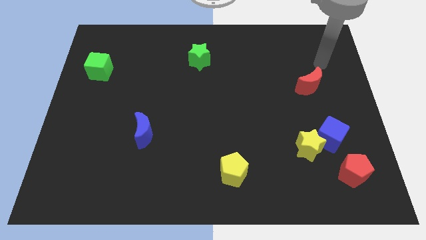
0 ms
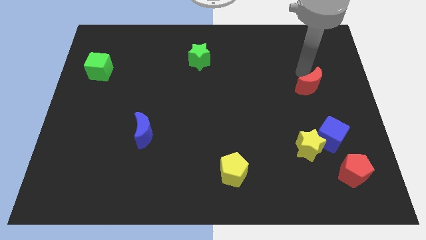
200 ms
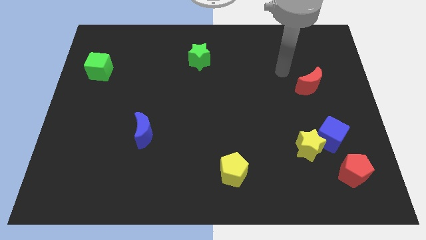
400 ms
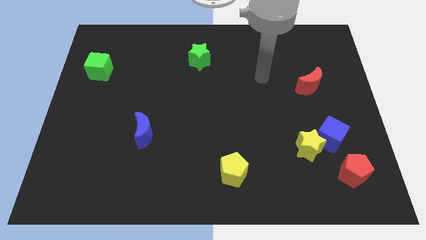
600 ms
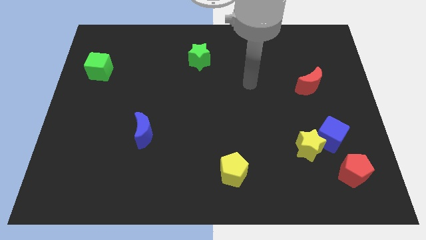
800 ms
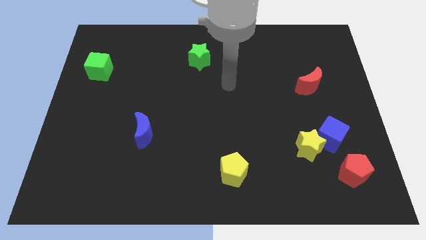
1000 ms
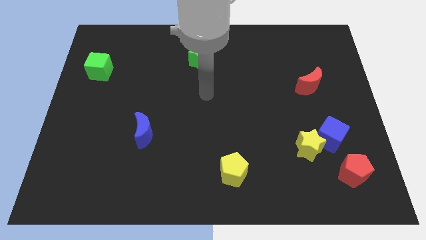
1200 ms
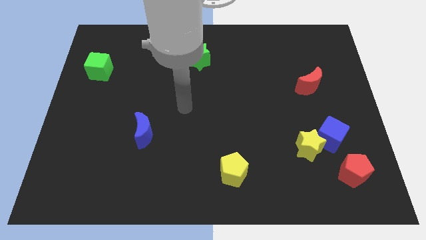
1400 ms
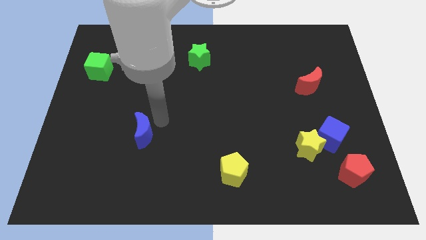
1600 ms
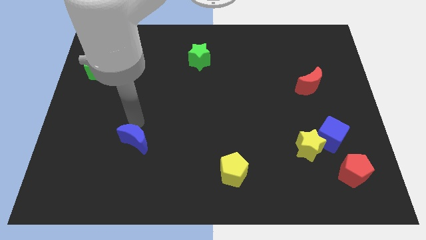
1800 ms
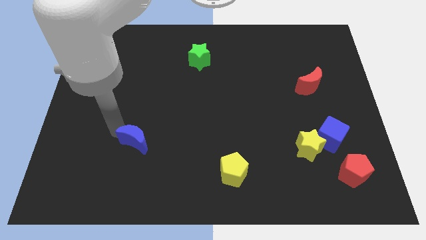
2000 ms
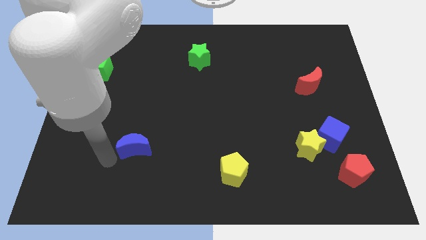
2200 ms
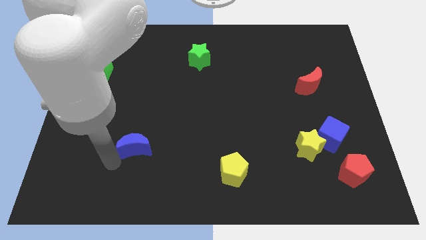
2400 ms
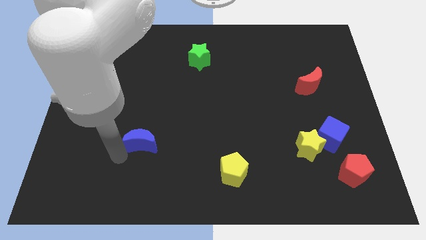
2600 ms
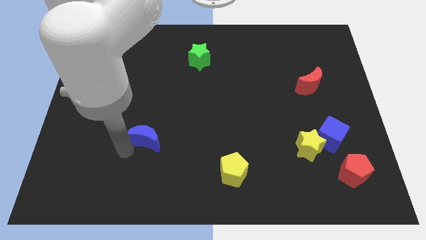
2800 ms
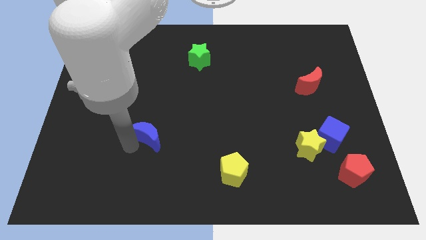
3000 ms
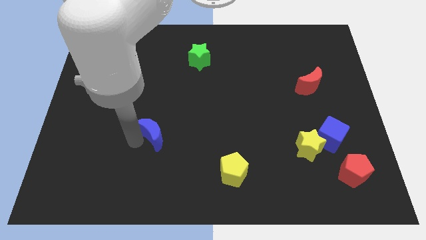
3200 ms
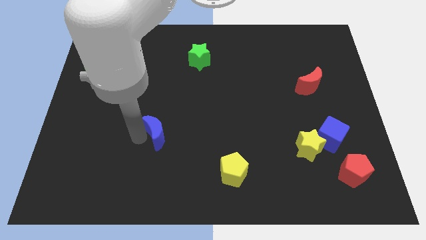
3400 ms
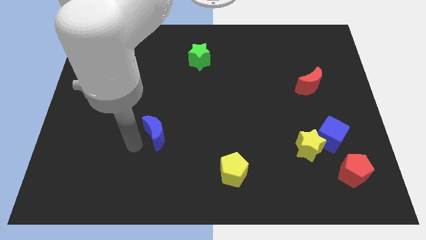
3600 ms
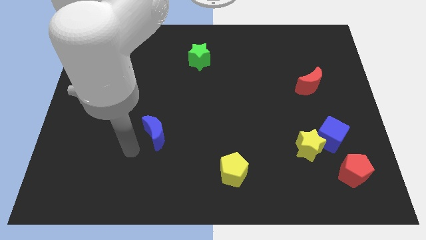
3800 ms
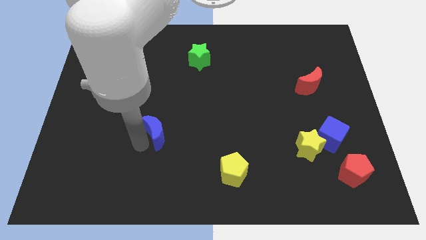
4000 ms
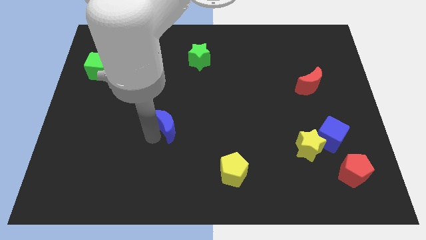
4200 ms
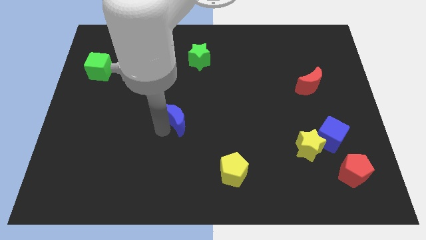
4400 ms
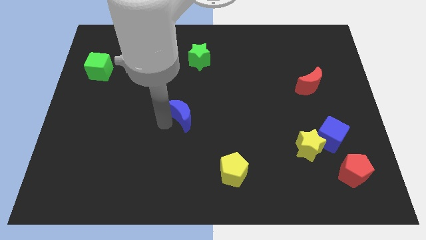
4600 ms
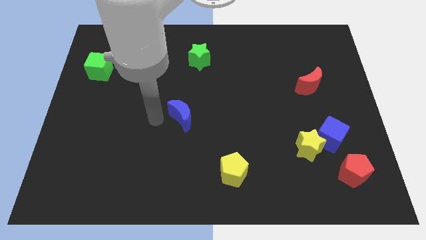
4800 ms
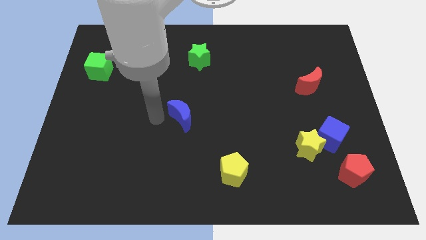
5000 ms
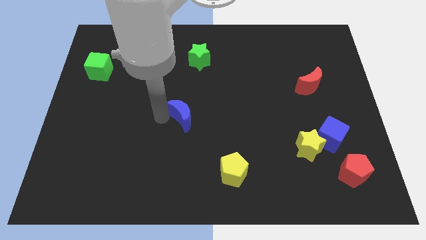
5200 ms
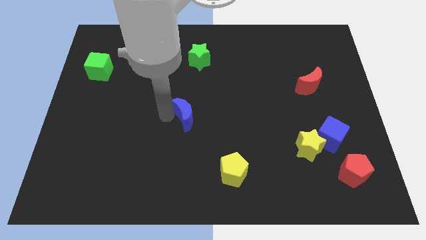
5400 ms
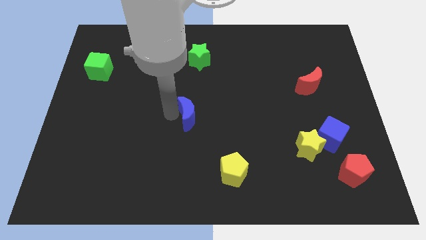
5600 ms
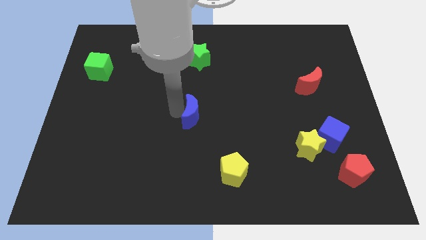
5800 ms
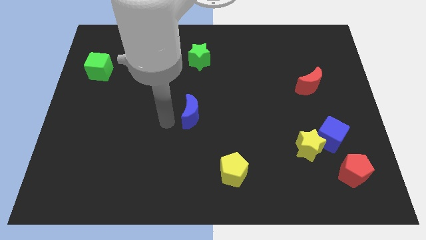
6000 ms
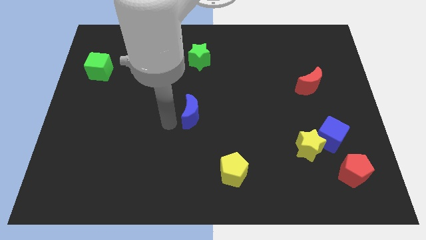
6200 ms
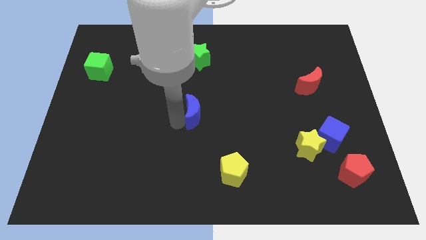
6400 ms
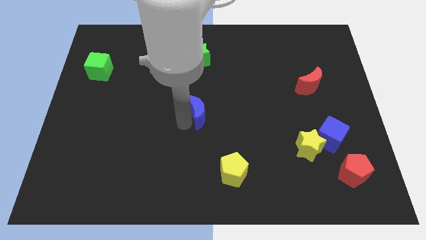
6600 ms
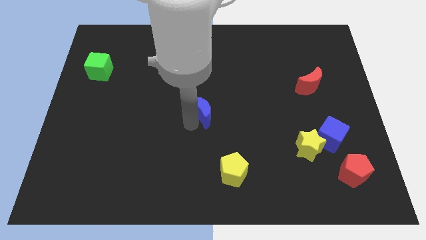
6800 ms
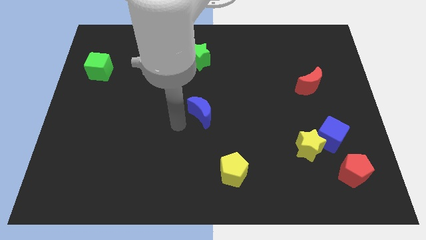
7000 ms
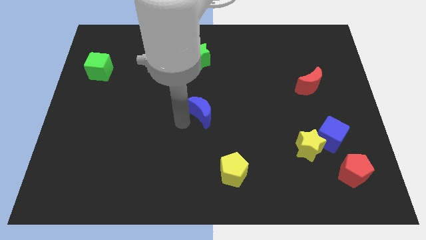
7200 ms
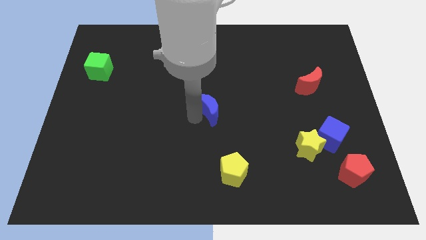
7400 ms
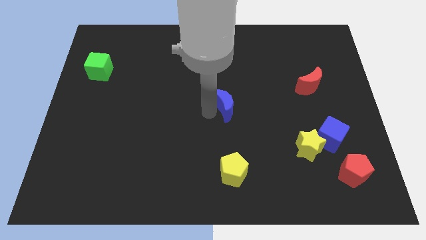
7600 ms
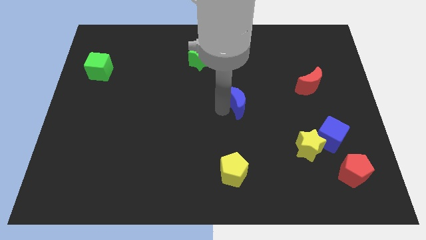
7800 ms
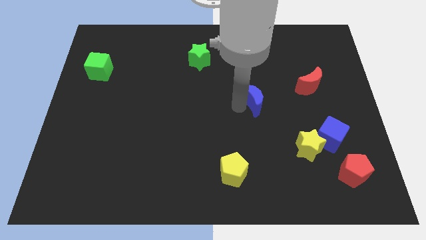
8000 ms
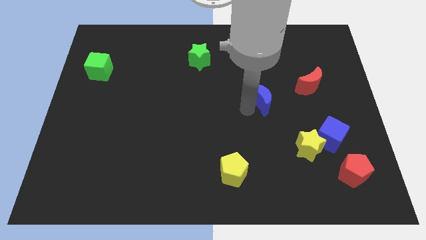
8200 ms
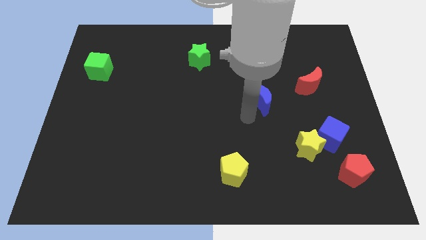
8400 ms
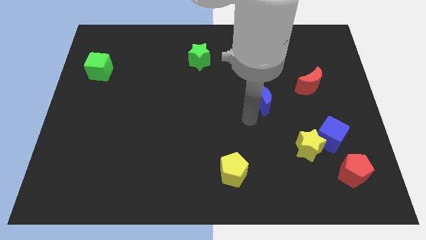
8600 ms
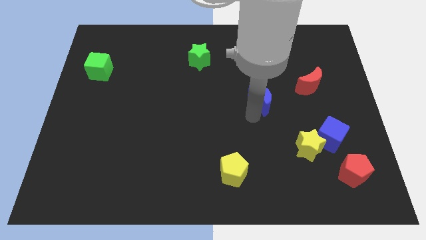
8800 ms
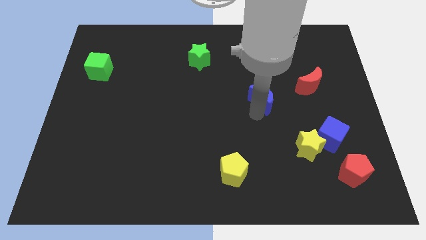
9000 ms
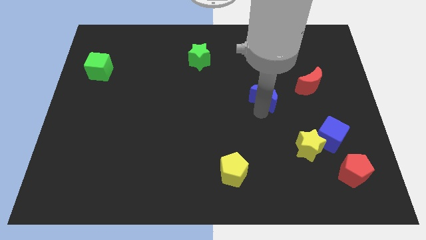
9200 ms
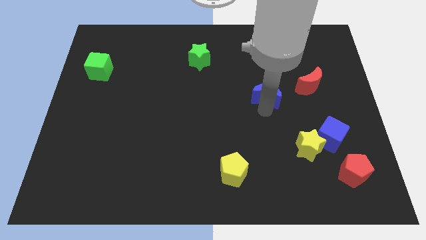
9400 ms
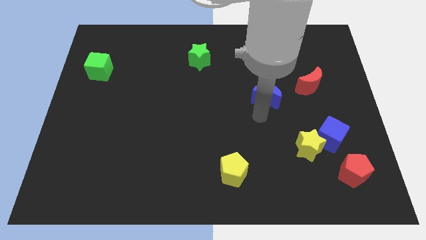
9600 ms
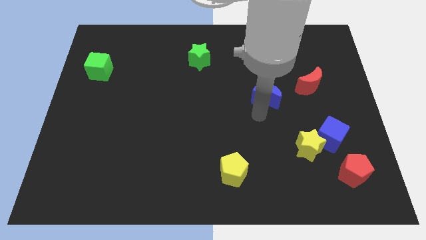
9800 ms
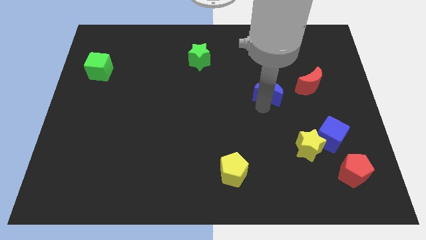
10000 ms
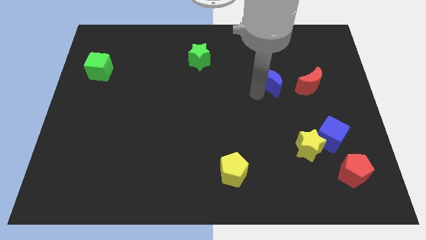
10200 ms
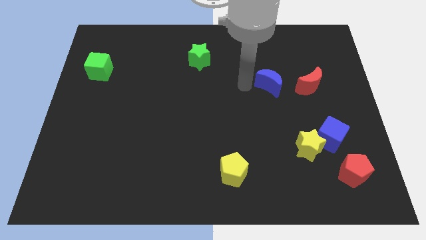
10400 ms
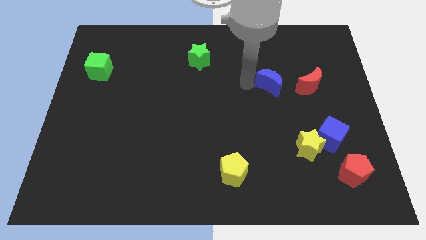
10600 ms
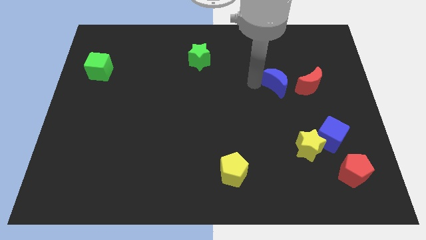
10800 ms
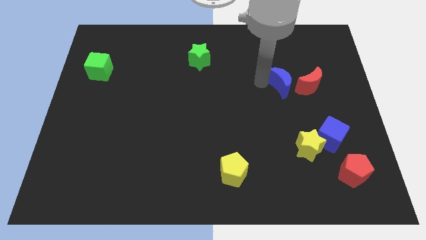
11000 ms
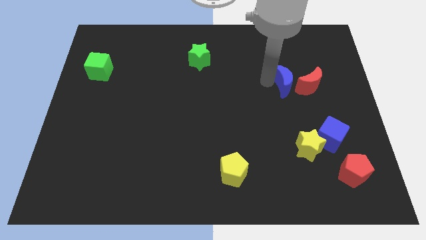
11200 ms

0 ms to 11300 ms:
push the blue moon next to the red moon
